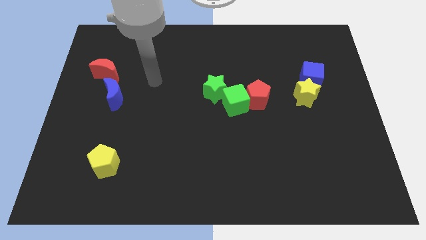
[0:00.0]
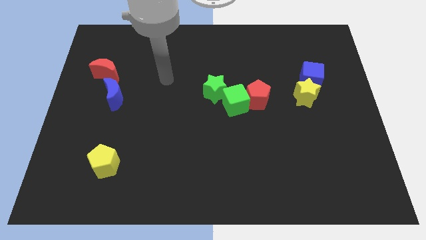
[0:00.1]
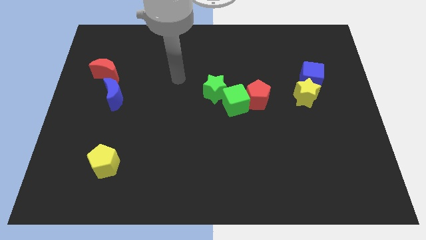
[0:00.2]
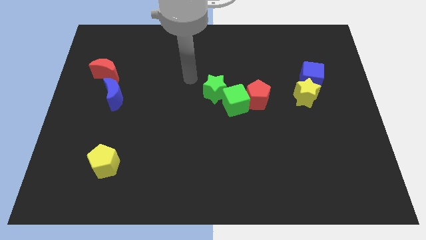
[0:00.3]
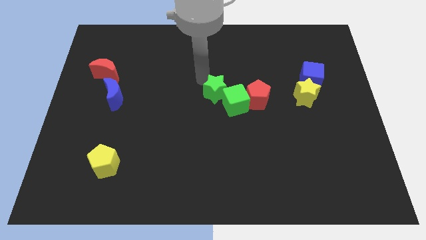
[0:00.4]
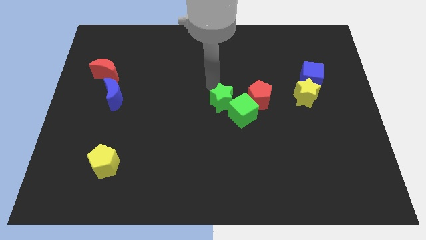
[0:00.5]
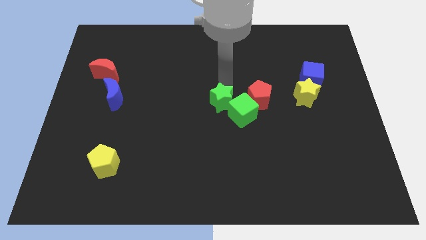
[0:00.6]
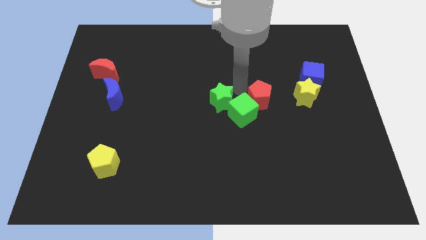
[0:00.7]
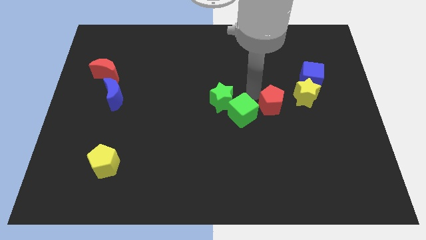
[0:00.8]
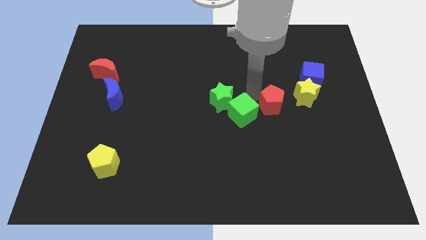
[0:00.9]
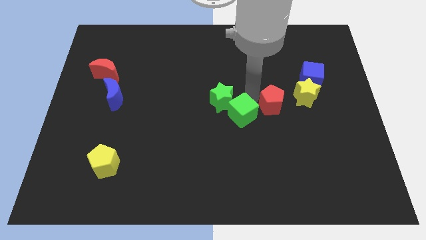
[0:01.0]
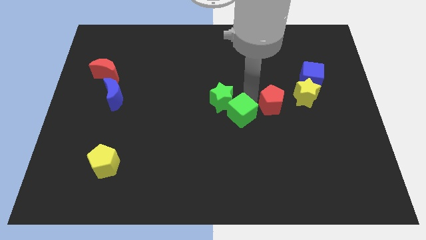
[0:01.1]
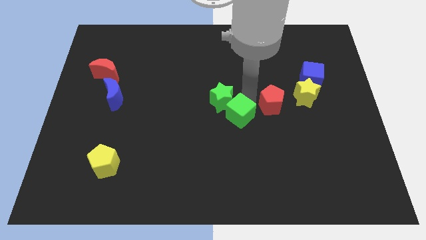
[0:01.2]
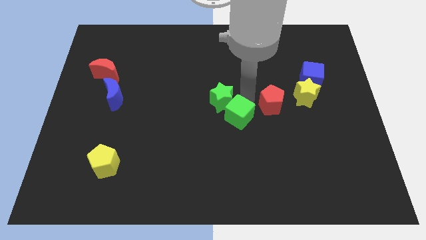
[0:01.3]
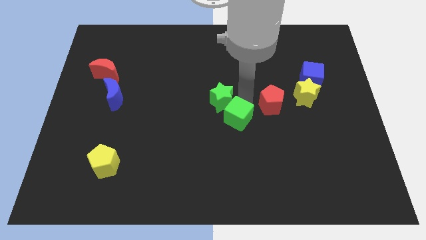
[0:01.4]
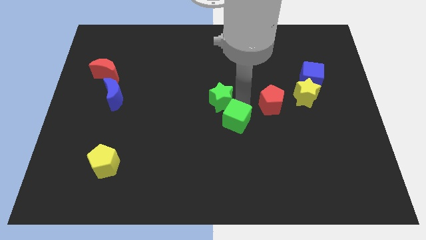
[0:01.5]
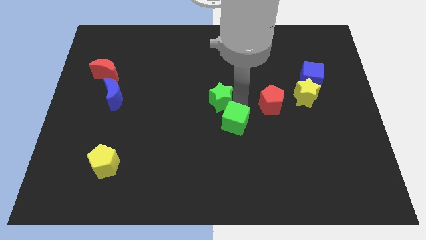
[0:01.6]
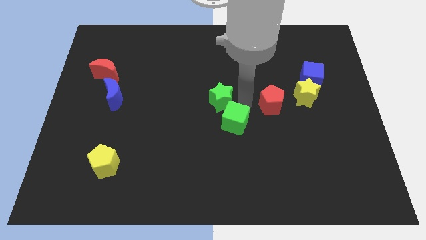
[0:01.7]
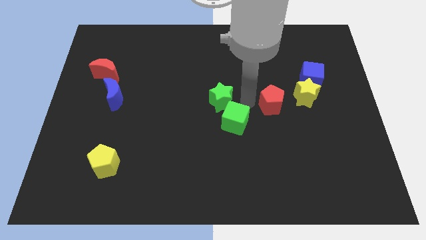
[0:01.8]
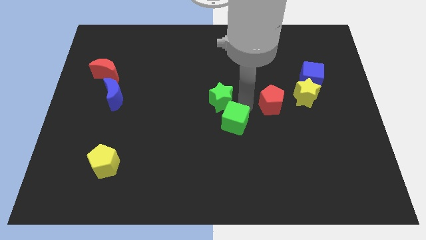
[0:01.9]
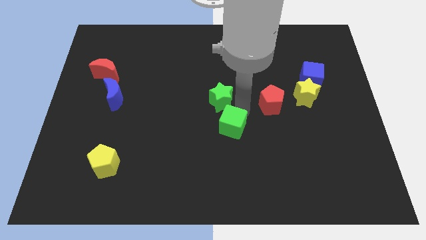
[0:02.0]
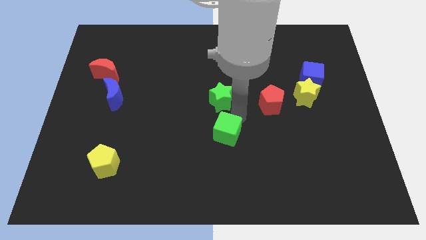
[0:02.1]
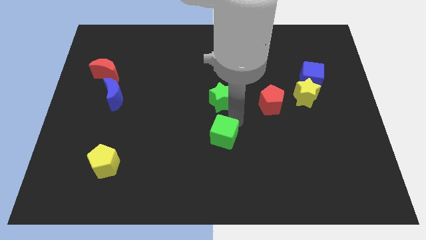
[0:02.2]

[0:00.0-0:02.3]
move the green cube away from the red pentagon and green star

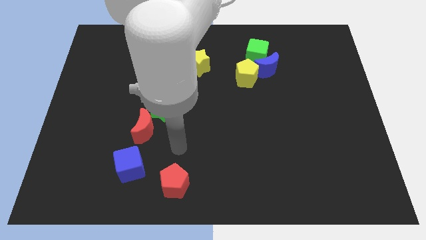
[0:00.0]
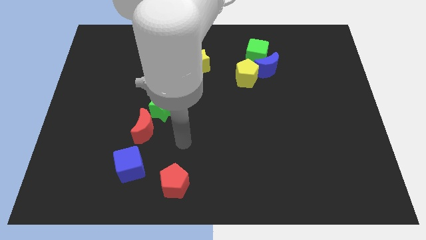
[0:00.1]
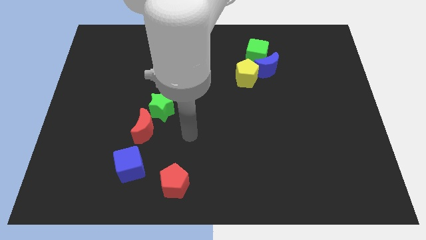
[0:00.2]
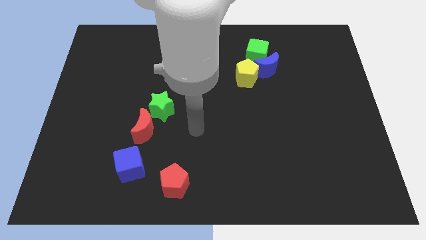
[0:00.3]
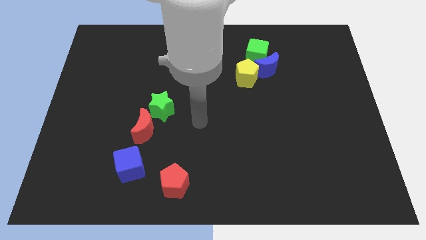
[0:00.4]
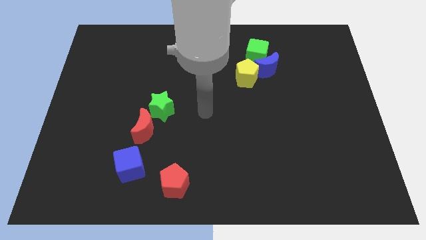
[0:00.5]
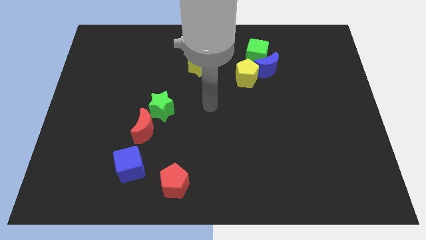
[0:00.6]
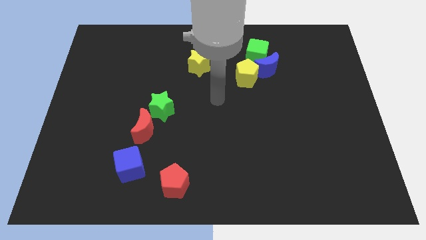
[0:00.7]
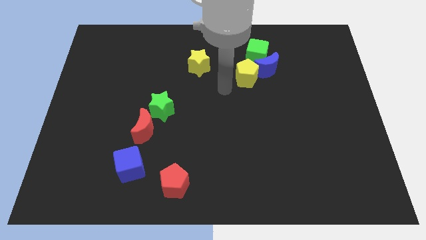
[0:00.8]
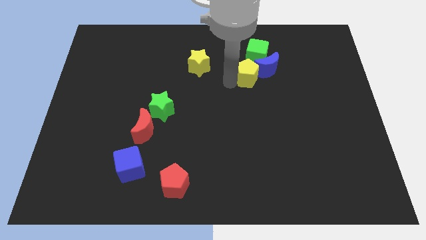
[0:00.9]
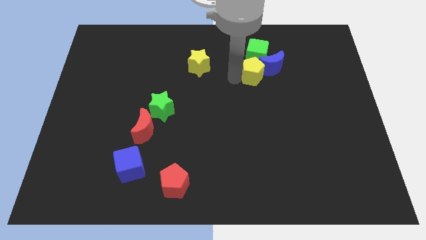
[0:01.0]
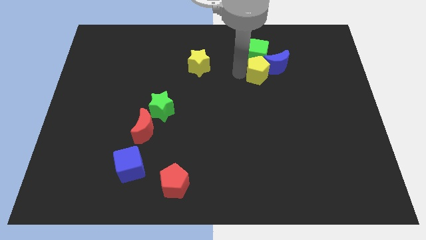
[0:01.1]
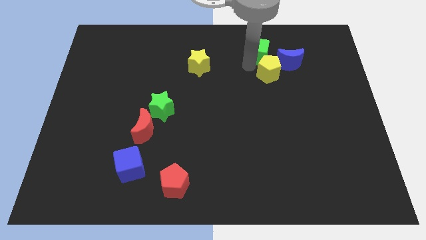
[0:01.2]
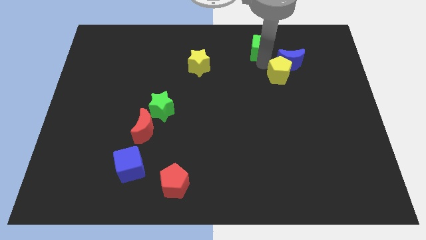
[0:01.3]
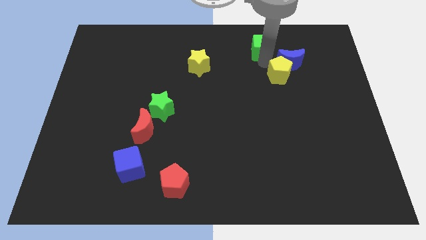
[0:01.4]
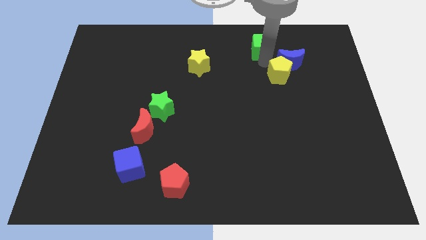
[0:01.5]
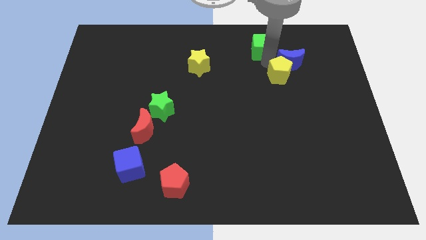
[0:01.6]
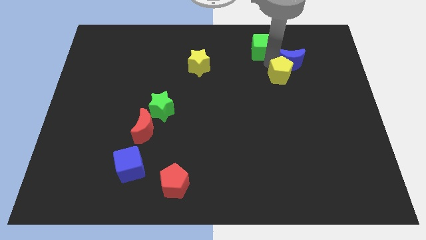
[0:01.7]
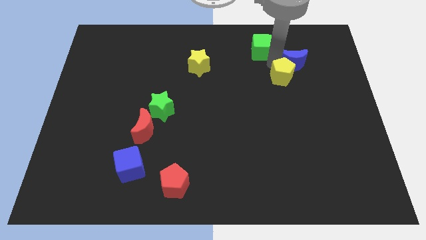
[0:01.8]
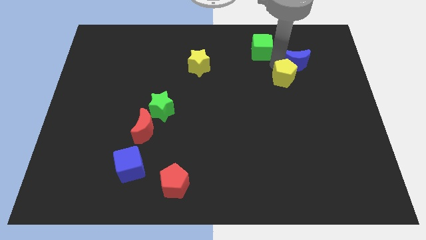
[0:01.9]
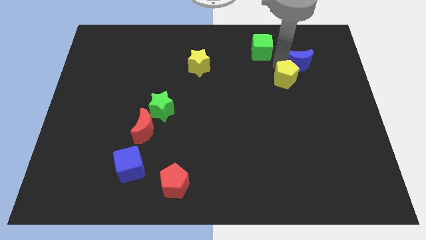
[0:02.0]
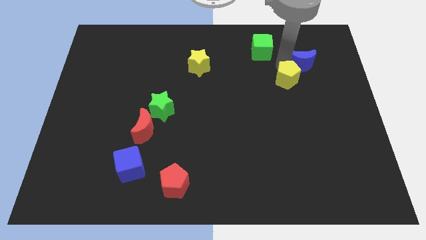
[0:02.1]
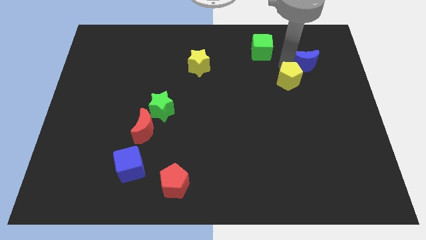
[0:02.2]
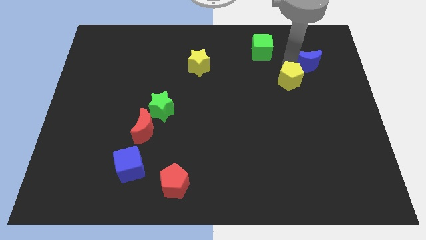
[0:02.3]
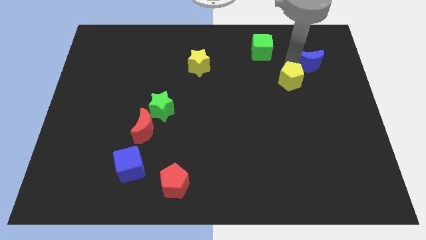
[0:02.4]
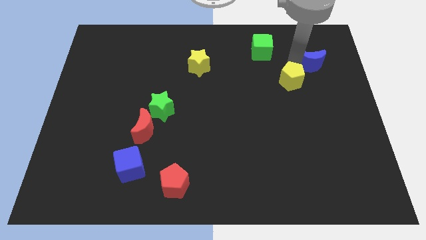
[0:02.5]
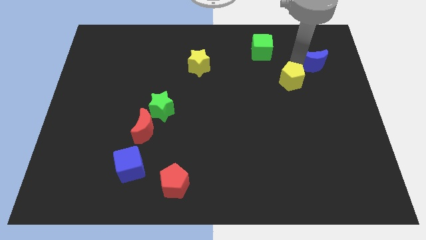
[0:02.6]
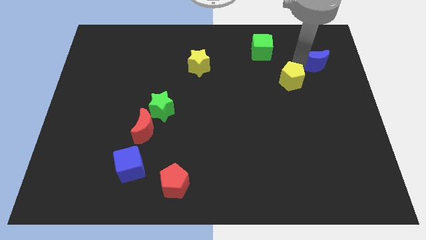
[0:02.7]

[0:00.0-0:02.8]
separate the blue moon from the green cube and yellow pentagon

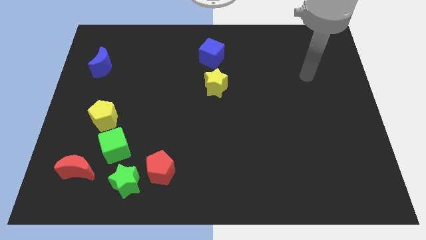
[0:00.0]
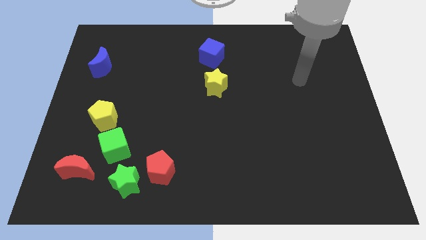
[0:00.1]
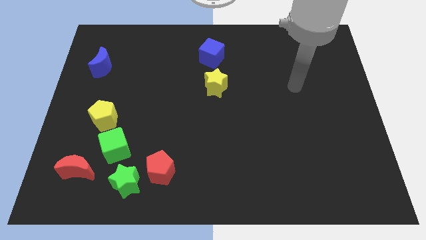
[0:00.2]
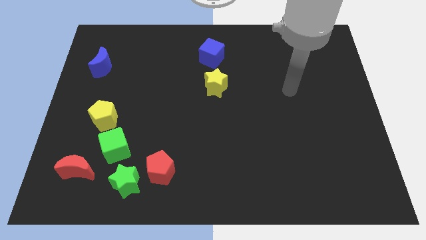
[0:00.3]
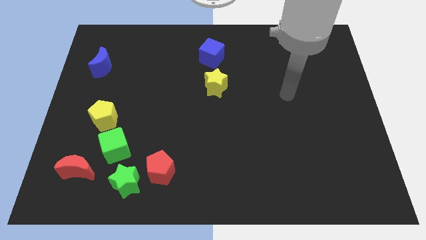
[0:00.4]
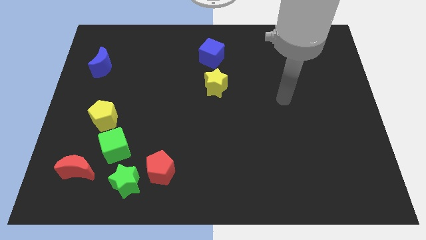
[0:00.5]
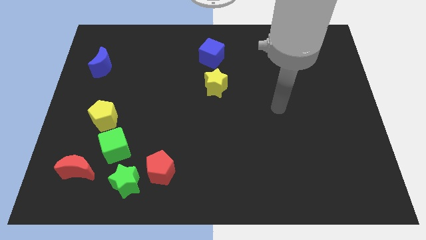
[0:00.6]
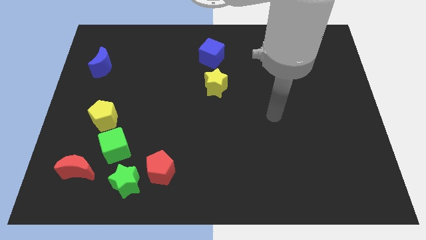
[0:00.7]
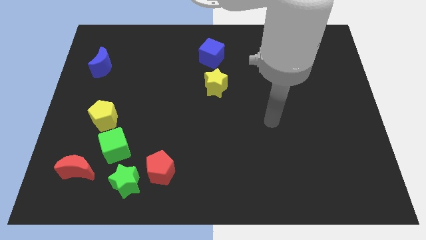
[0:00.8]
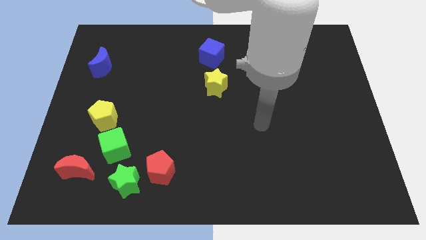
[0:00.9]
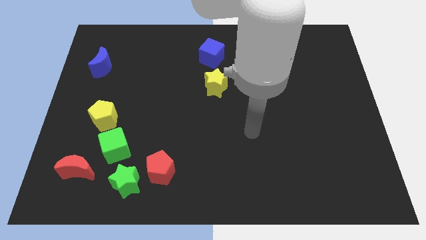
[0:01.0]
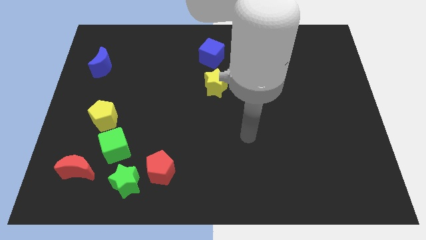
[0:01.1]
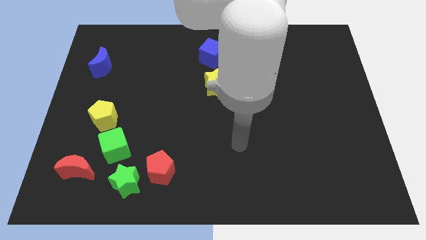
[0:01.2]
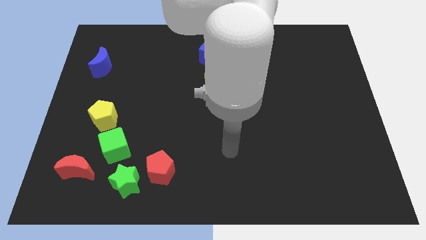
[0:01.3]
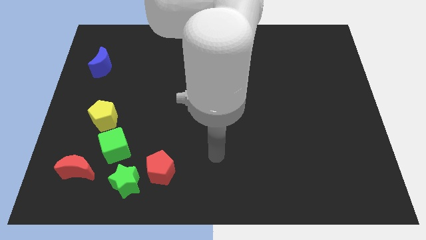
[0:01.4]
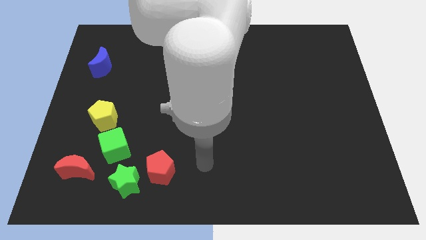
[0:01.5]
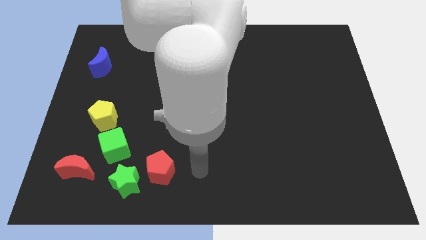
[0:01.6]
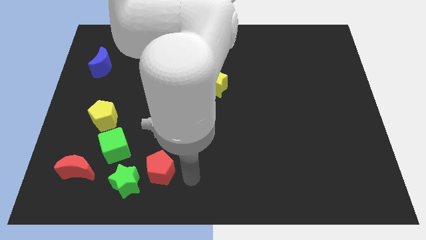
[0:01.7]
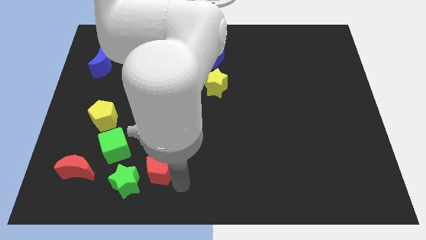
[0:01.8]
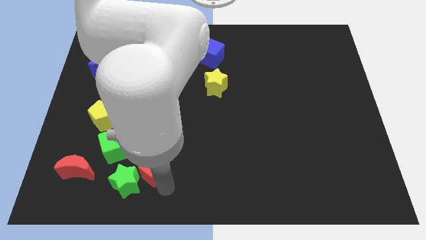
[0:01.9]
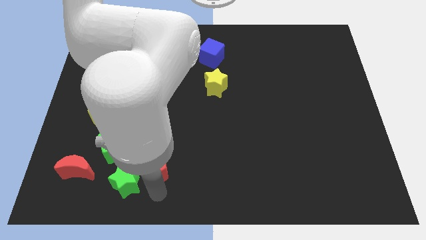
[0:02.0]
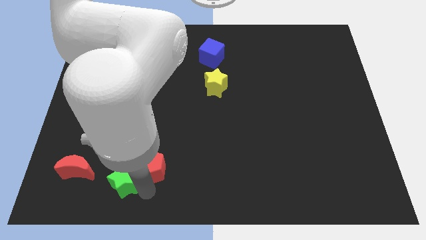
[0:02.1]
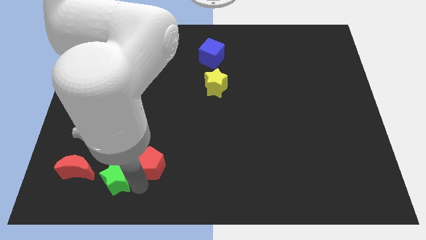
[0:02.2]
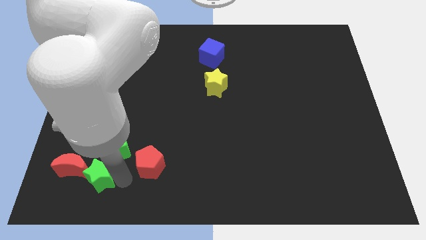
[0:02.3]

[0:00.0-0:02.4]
move the red pentagon away from the green star

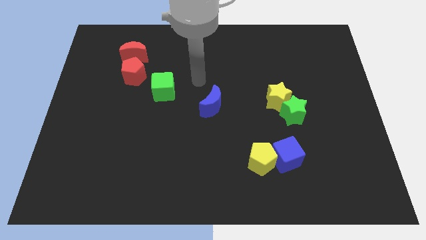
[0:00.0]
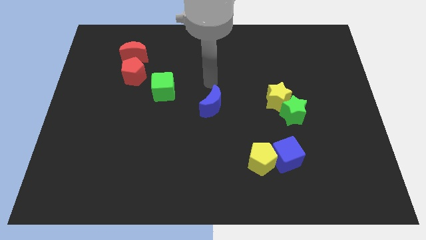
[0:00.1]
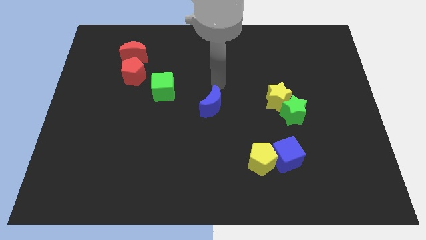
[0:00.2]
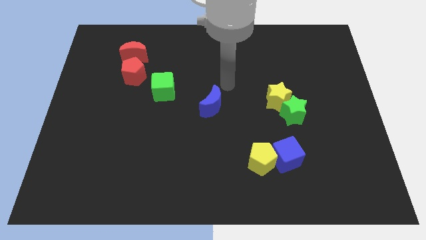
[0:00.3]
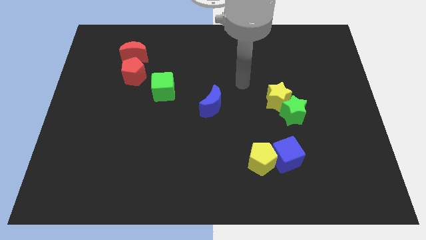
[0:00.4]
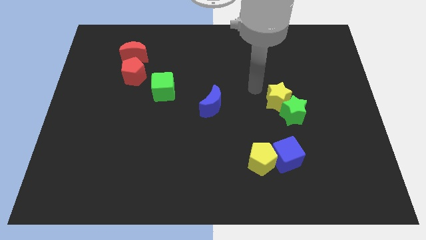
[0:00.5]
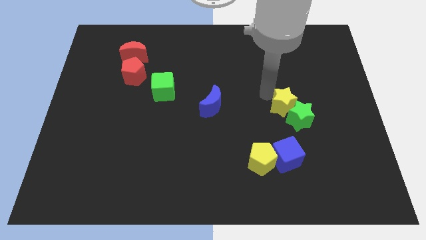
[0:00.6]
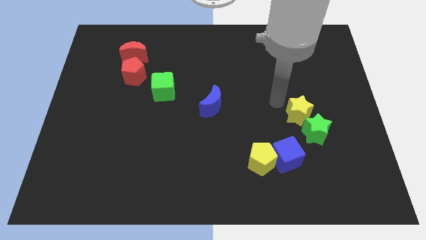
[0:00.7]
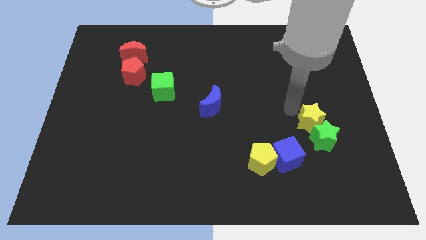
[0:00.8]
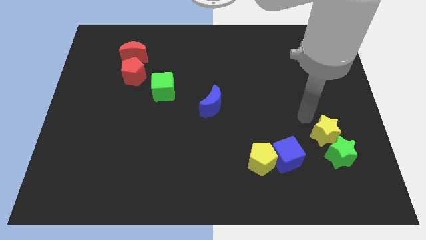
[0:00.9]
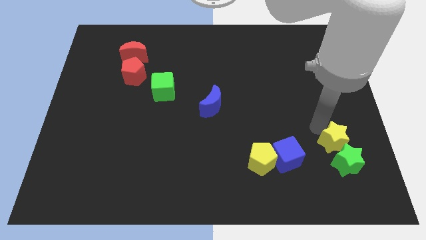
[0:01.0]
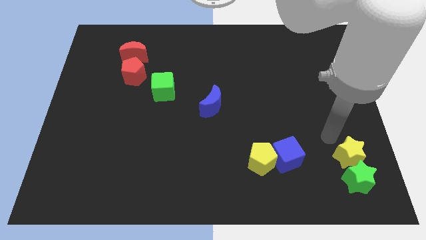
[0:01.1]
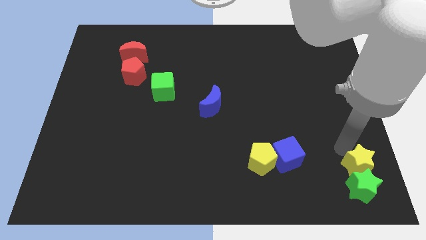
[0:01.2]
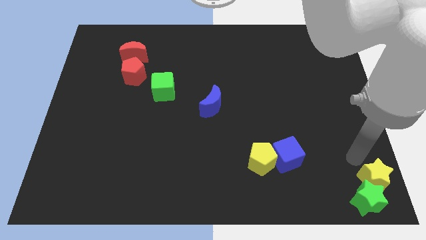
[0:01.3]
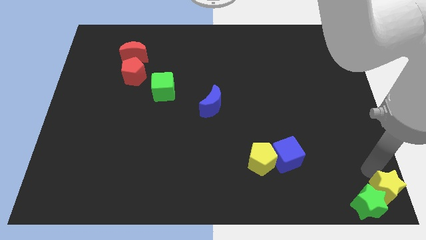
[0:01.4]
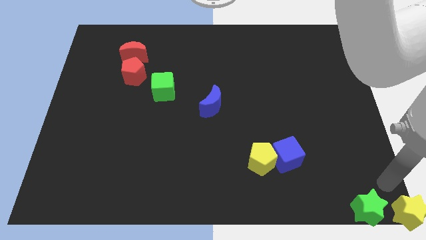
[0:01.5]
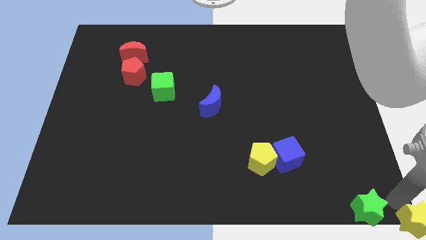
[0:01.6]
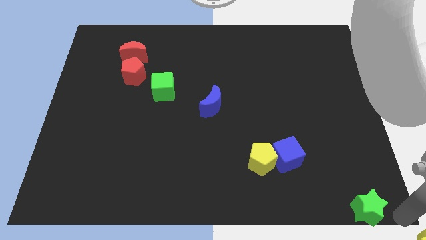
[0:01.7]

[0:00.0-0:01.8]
move the green star away from the yellow star
